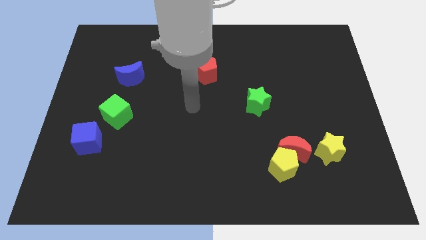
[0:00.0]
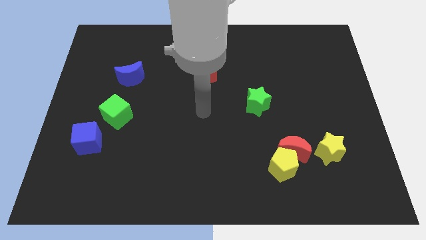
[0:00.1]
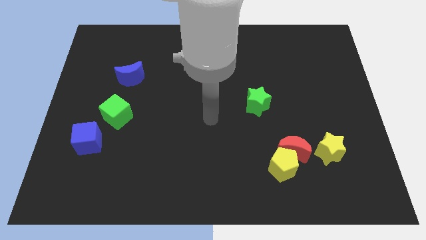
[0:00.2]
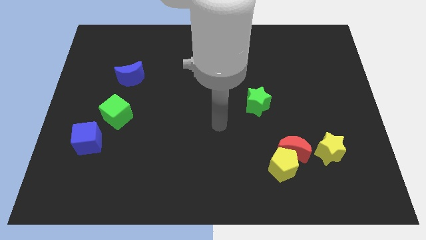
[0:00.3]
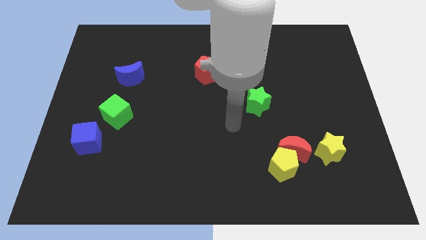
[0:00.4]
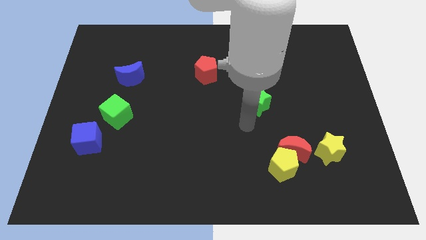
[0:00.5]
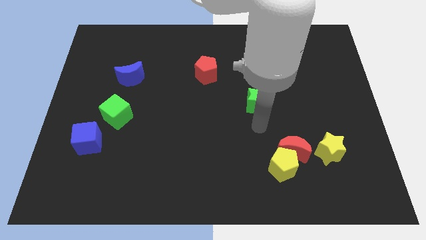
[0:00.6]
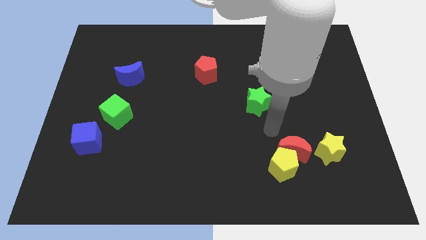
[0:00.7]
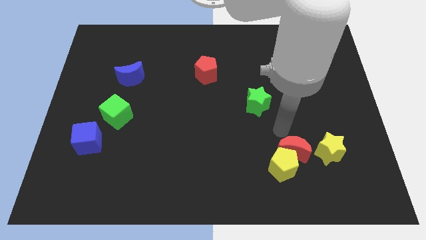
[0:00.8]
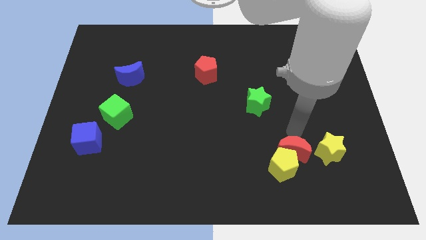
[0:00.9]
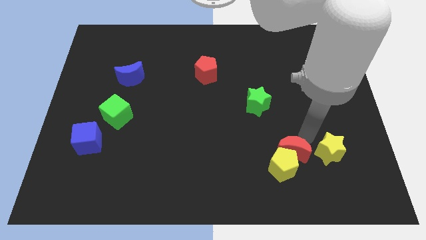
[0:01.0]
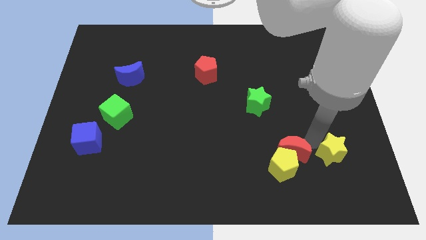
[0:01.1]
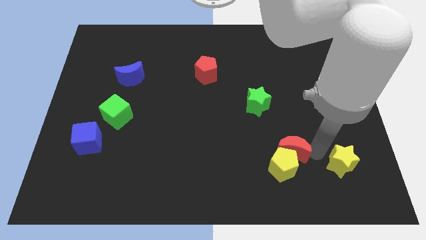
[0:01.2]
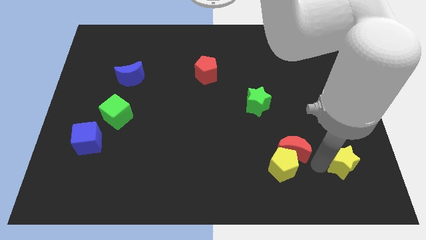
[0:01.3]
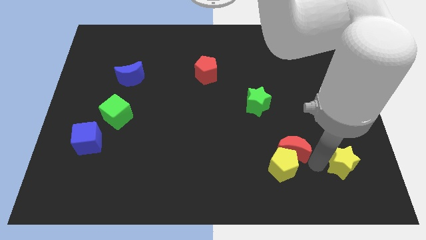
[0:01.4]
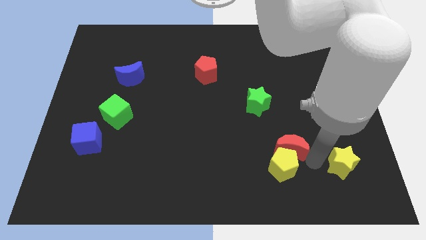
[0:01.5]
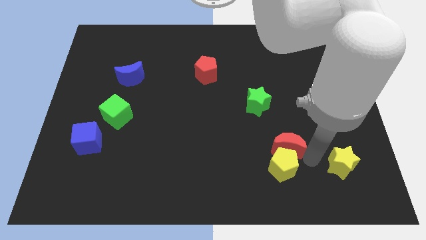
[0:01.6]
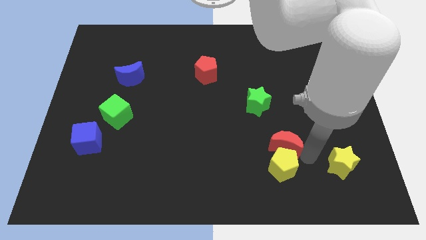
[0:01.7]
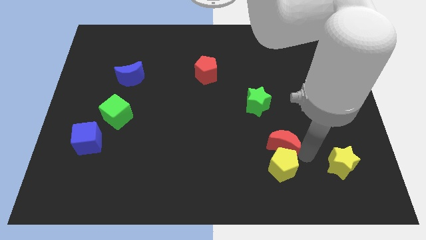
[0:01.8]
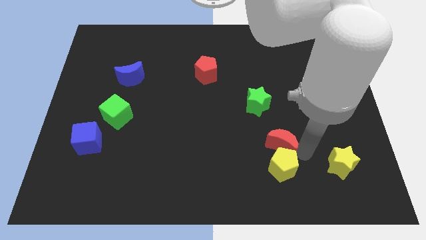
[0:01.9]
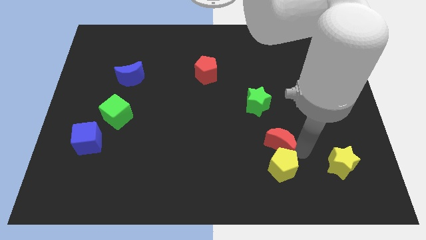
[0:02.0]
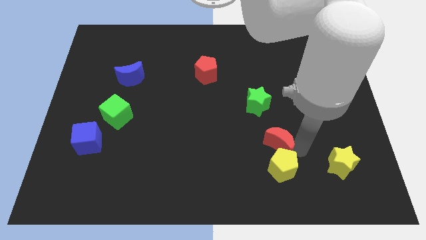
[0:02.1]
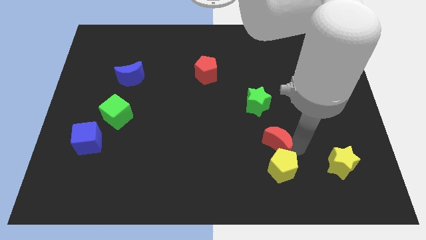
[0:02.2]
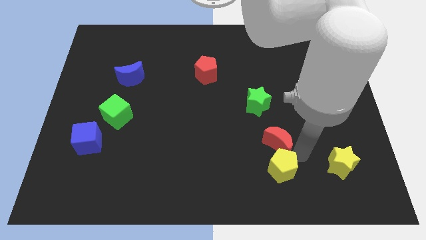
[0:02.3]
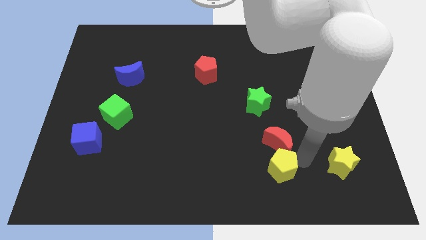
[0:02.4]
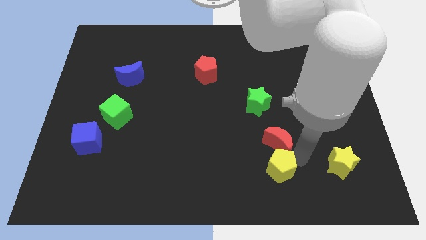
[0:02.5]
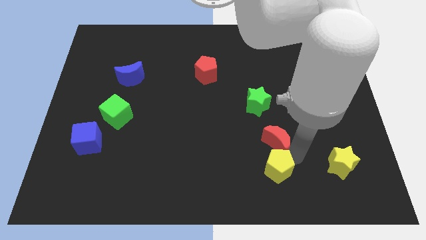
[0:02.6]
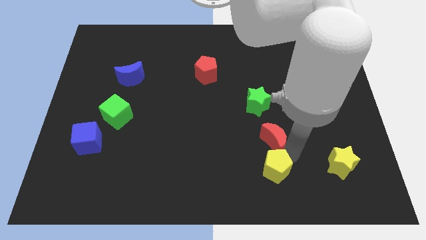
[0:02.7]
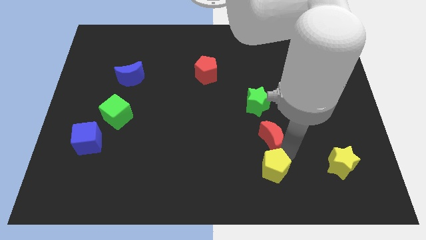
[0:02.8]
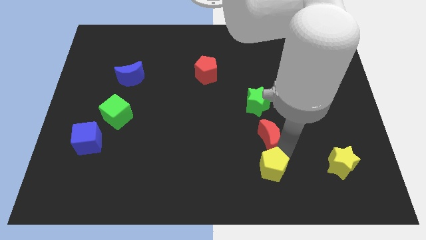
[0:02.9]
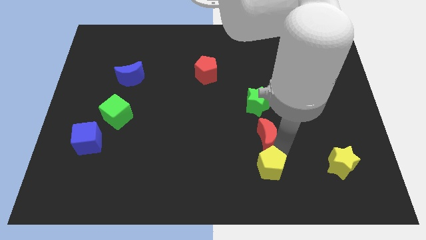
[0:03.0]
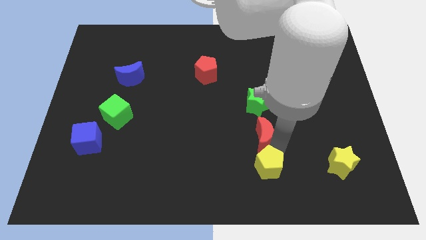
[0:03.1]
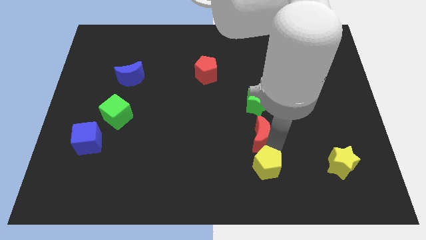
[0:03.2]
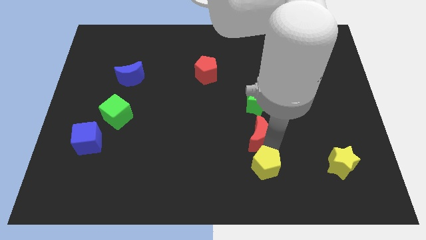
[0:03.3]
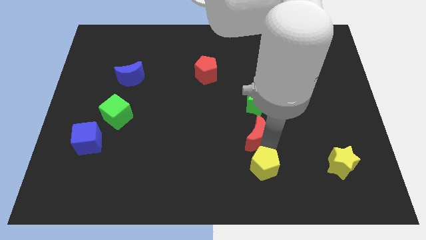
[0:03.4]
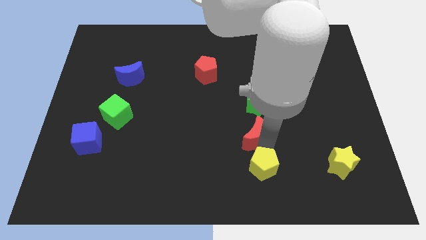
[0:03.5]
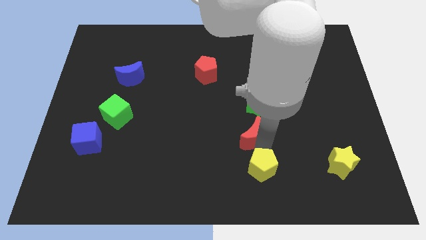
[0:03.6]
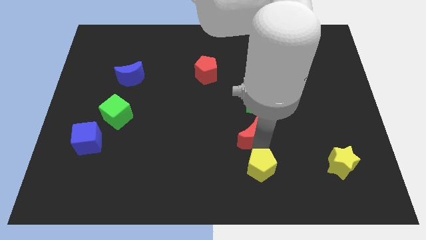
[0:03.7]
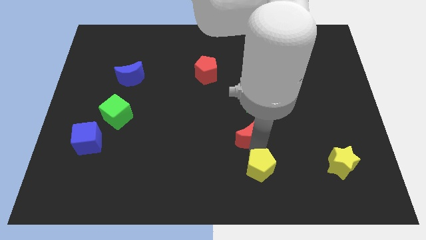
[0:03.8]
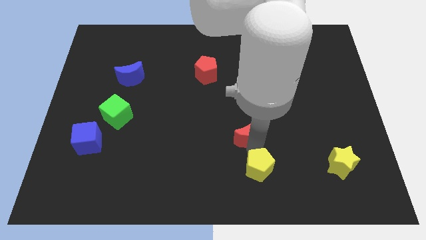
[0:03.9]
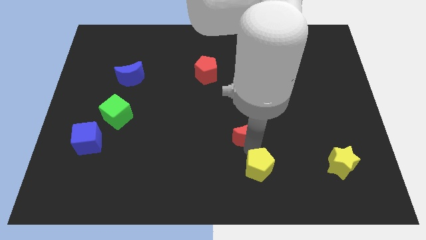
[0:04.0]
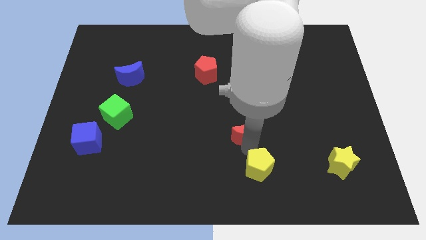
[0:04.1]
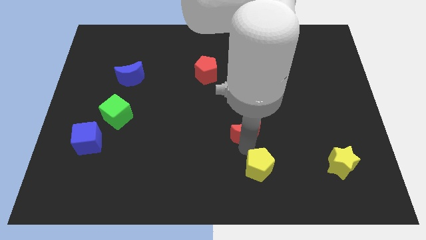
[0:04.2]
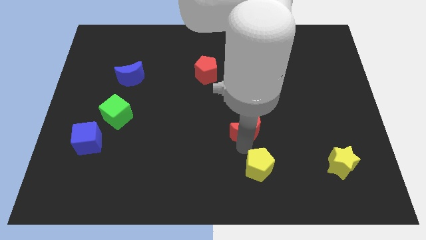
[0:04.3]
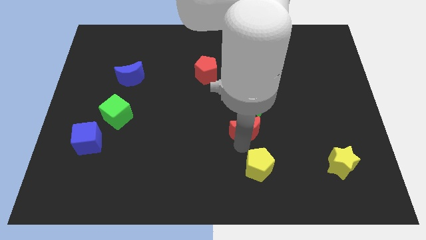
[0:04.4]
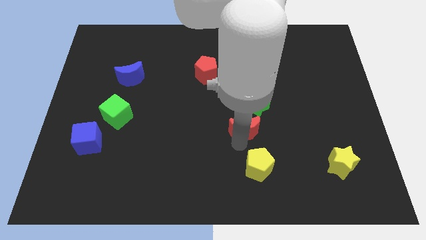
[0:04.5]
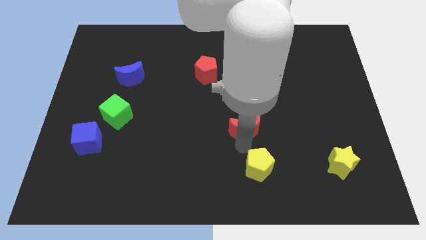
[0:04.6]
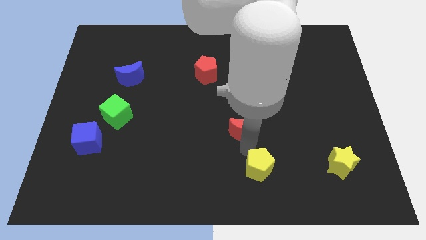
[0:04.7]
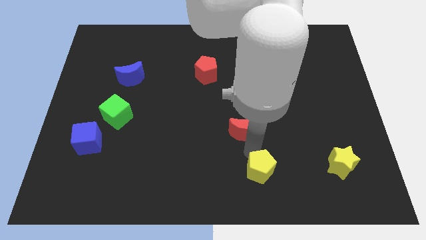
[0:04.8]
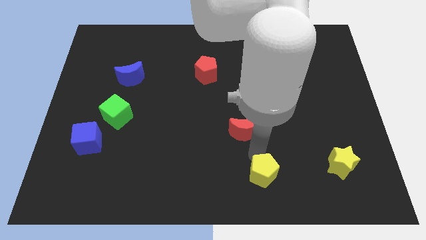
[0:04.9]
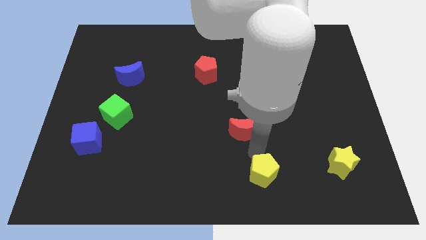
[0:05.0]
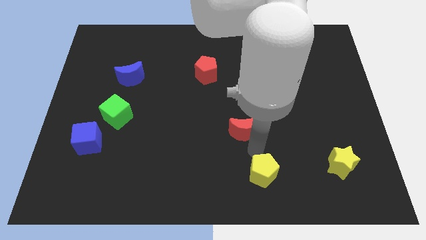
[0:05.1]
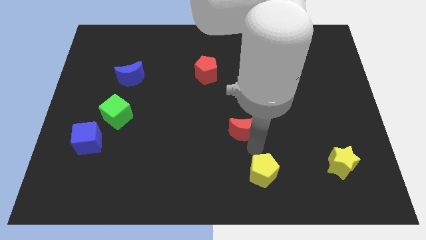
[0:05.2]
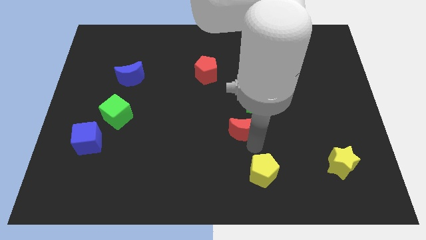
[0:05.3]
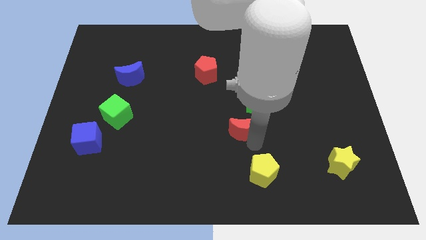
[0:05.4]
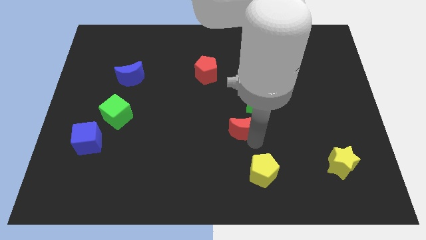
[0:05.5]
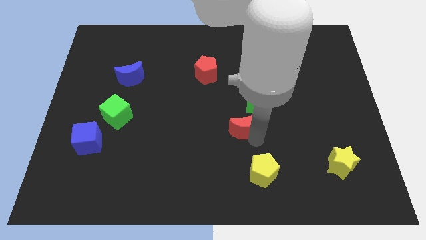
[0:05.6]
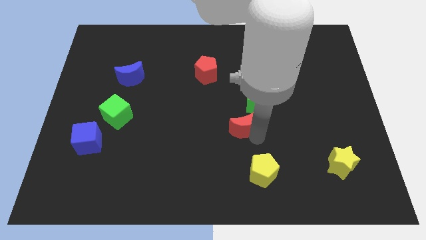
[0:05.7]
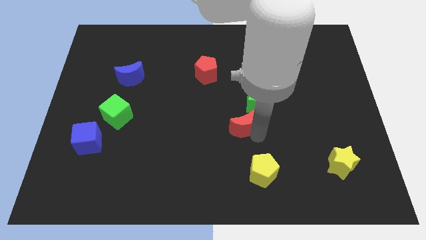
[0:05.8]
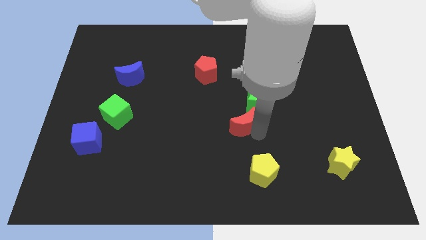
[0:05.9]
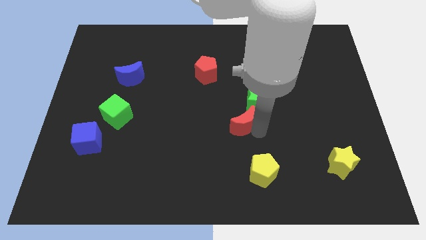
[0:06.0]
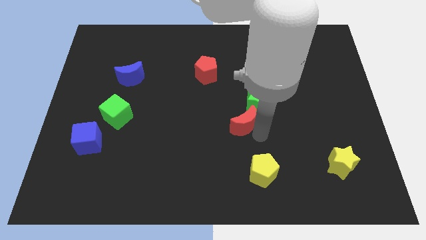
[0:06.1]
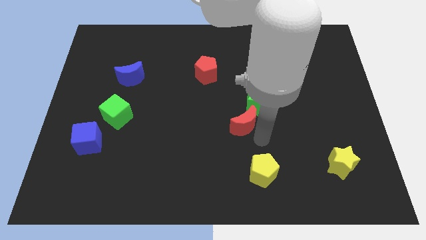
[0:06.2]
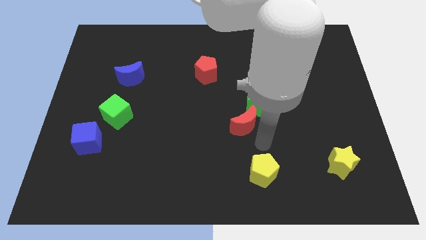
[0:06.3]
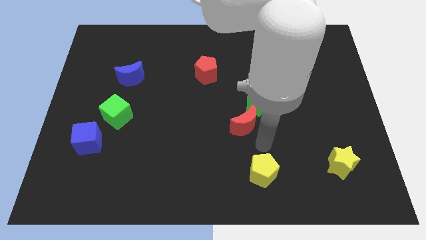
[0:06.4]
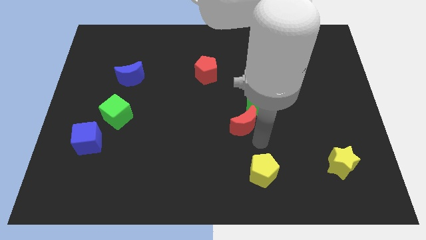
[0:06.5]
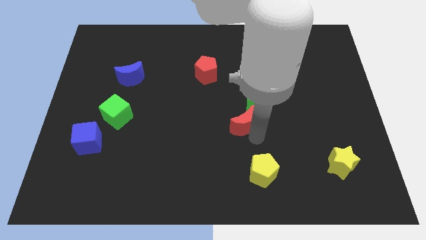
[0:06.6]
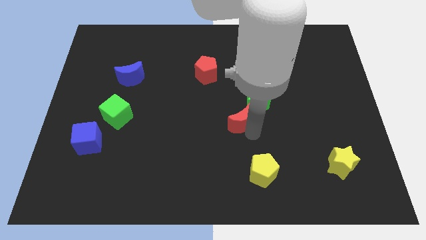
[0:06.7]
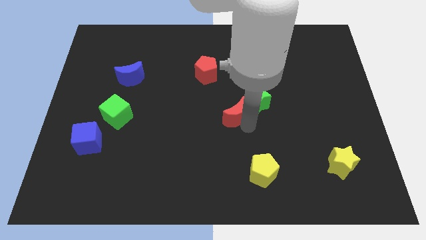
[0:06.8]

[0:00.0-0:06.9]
push the red moon to the left side of the green star

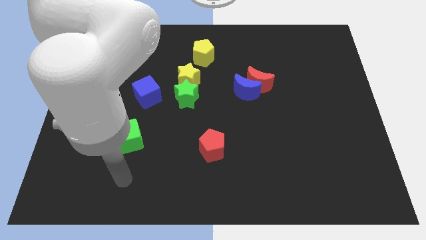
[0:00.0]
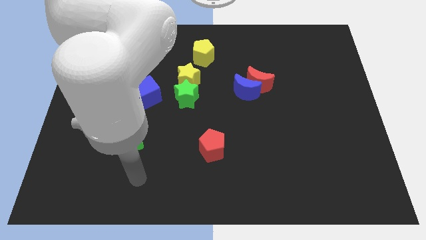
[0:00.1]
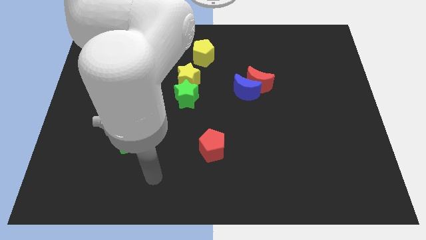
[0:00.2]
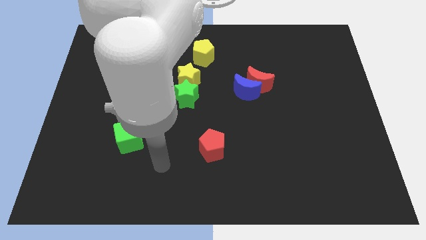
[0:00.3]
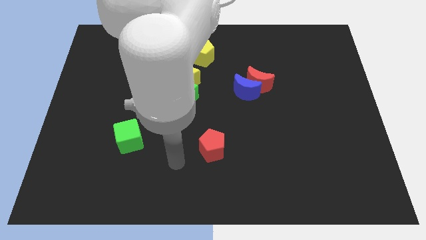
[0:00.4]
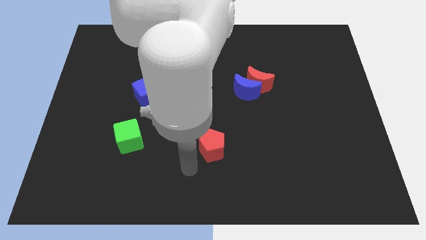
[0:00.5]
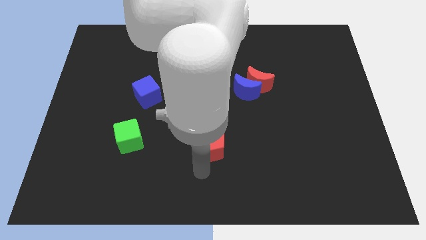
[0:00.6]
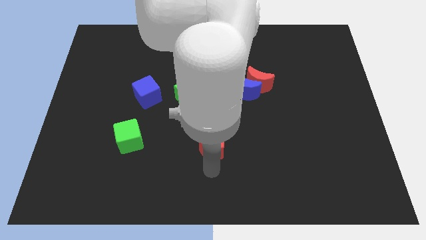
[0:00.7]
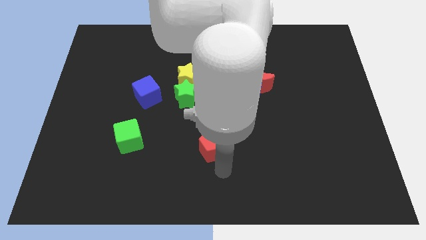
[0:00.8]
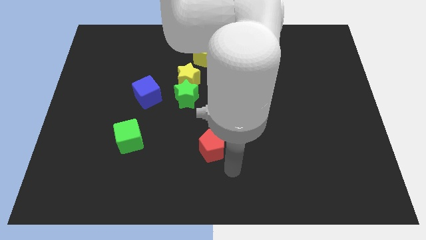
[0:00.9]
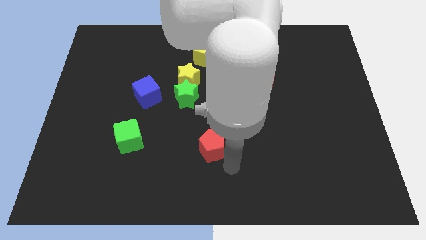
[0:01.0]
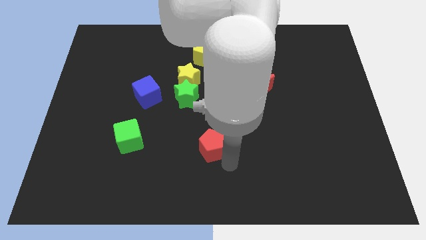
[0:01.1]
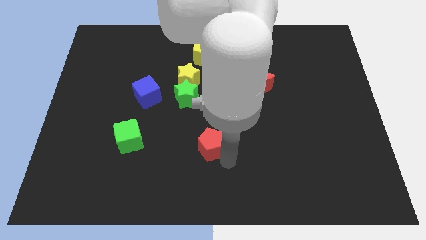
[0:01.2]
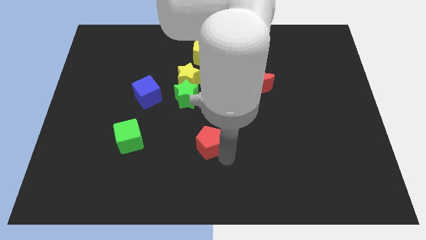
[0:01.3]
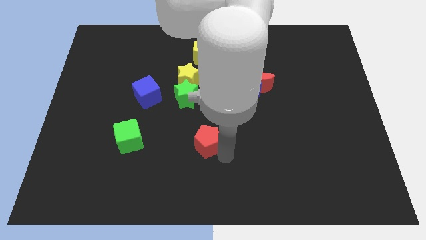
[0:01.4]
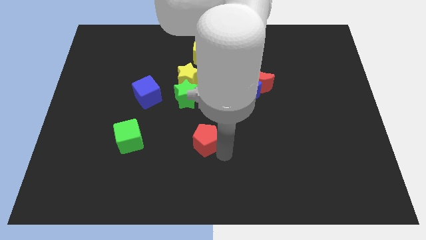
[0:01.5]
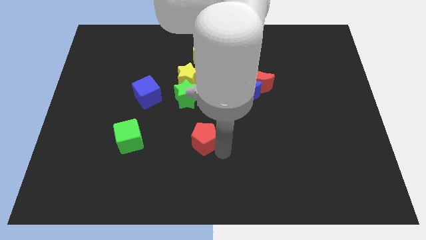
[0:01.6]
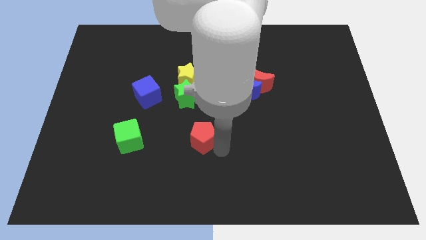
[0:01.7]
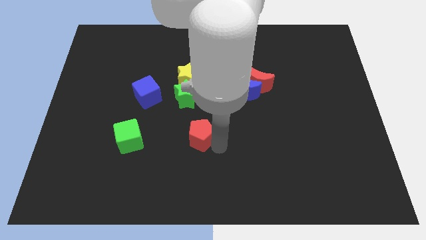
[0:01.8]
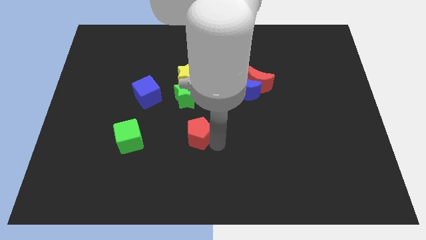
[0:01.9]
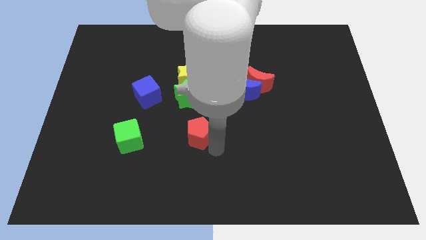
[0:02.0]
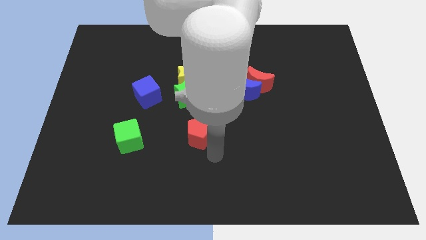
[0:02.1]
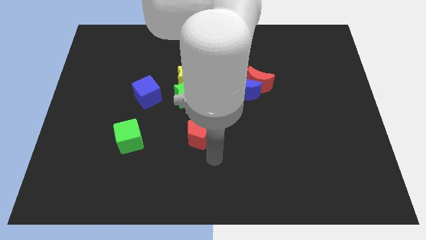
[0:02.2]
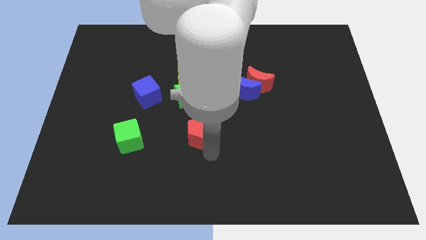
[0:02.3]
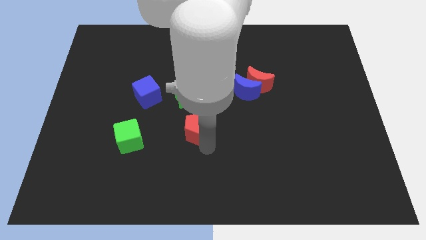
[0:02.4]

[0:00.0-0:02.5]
move the red pentagon below the yellow star
